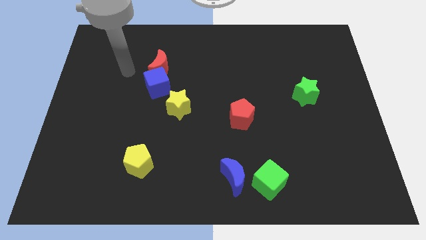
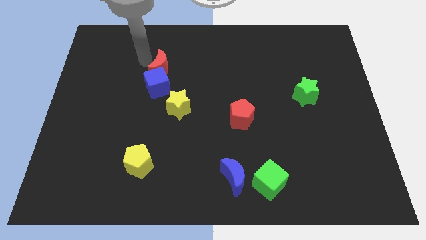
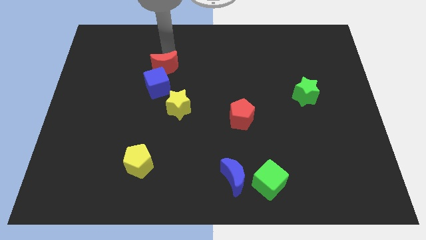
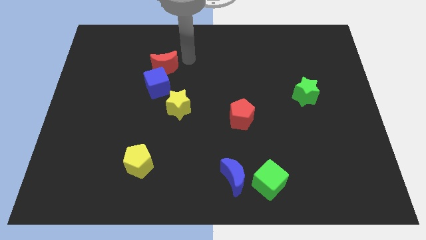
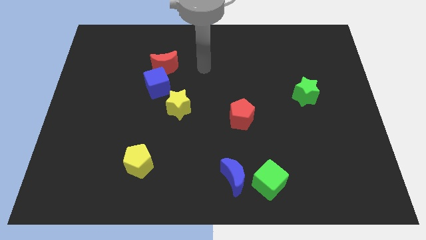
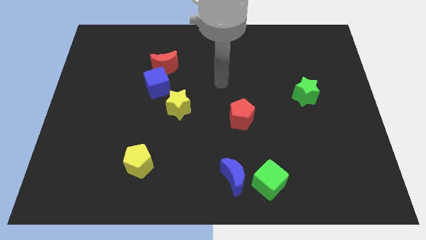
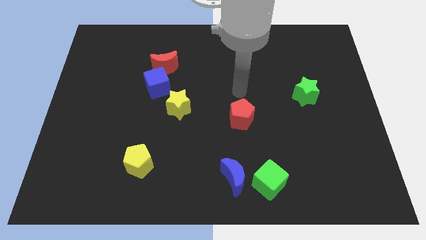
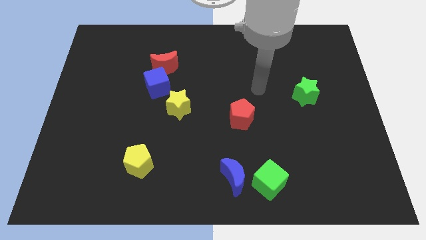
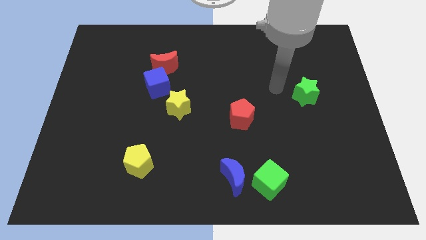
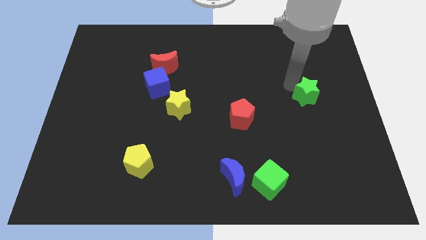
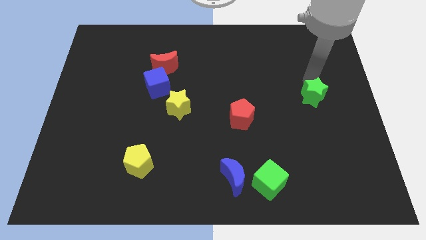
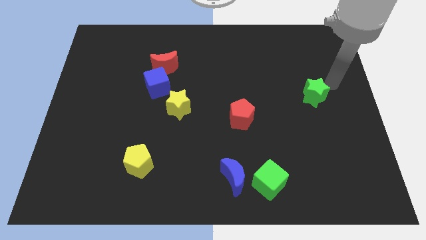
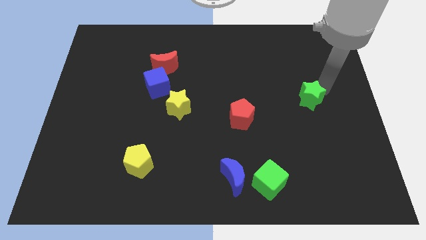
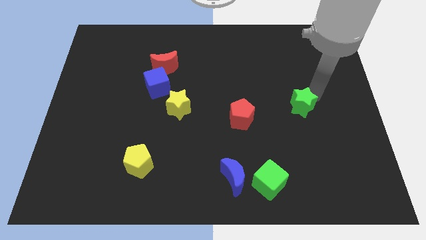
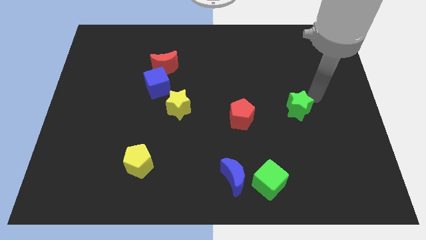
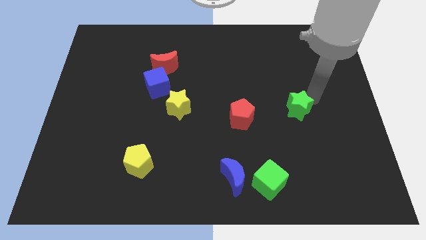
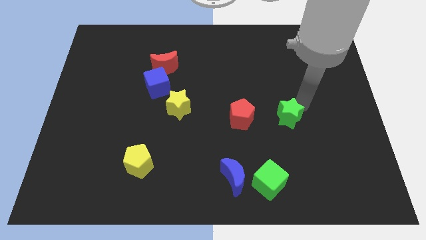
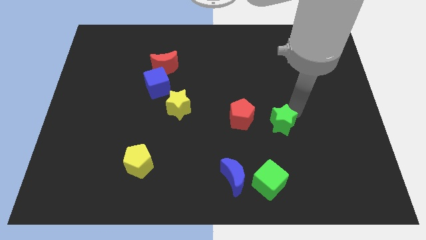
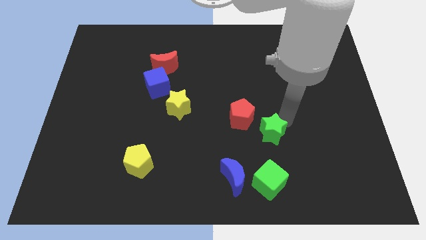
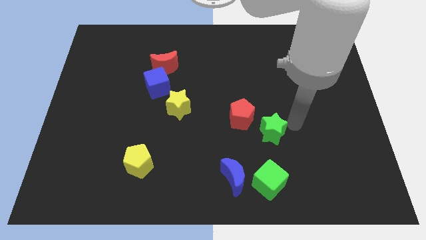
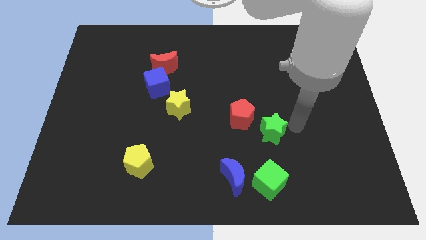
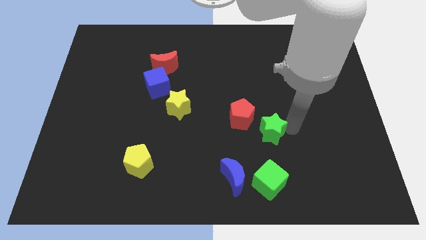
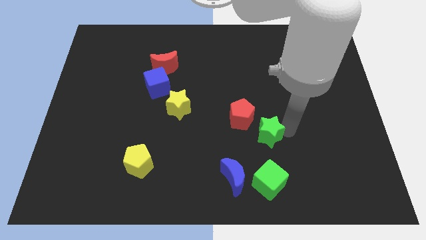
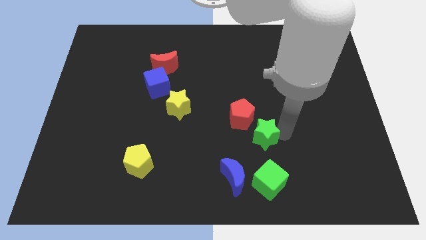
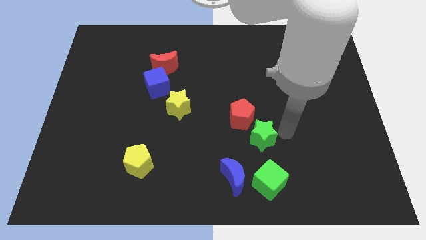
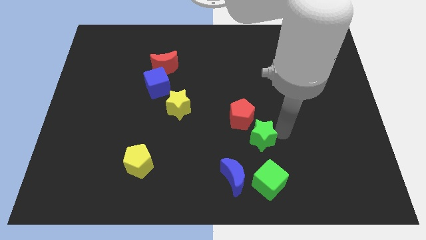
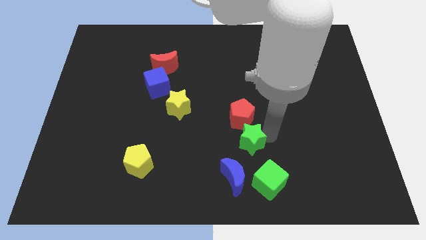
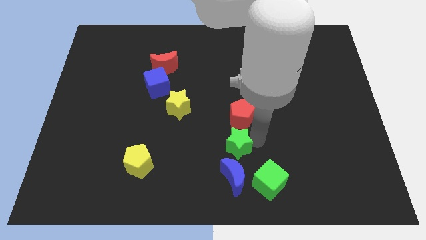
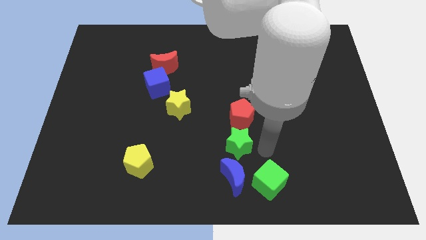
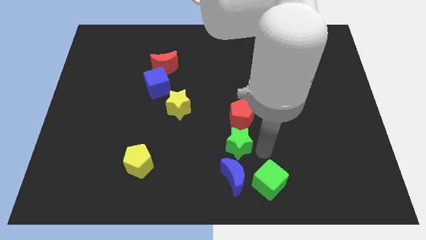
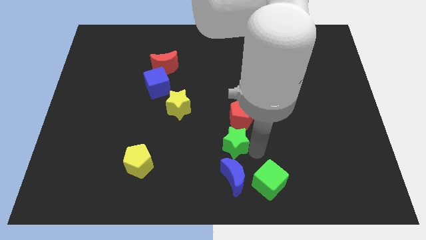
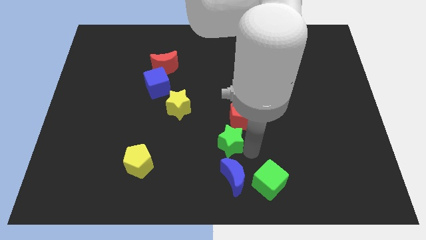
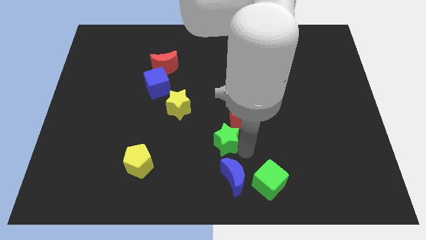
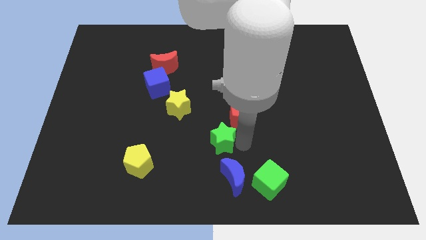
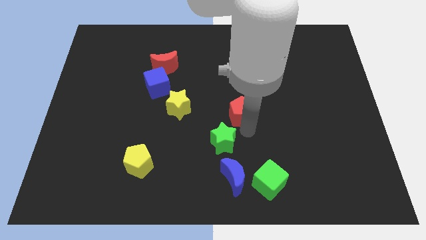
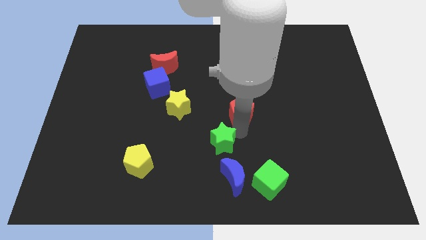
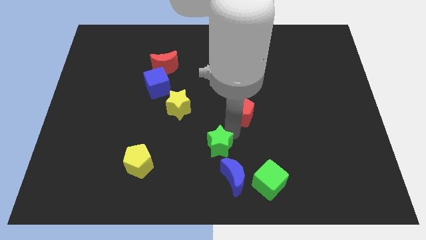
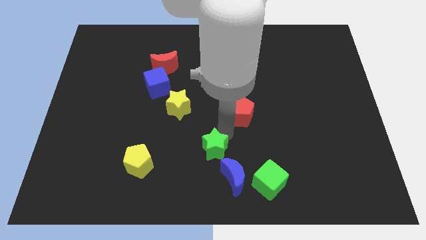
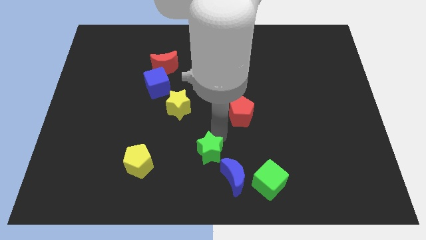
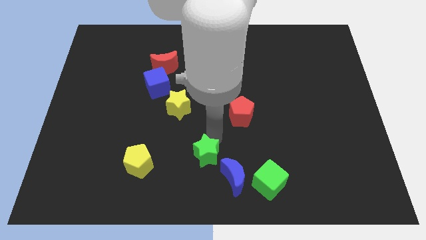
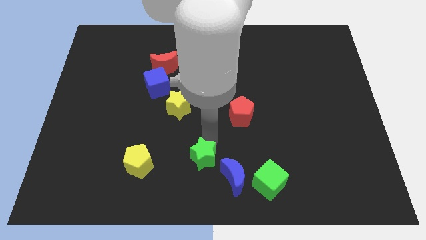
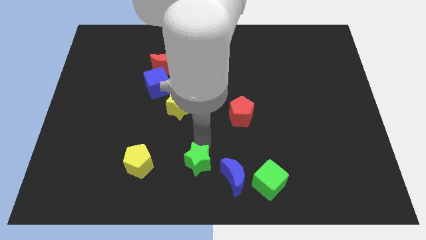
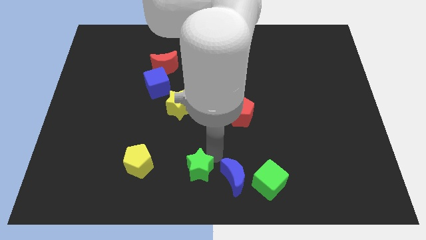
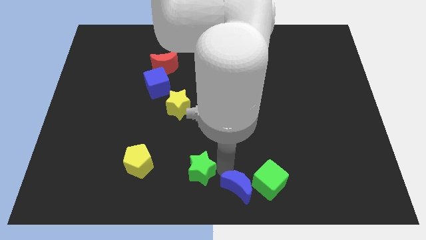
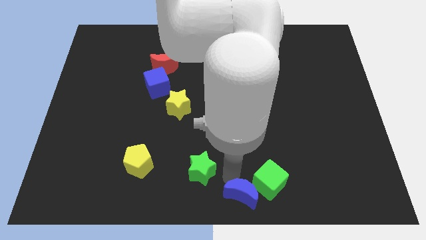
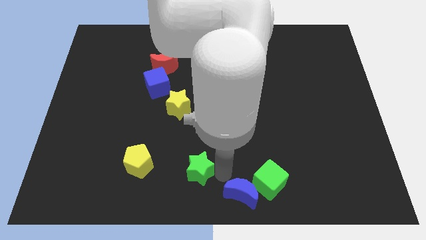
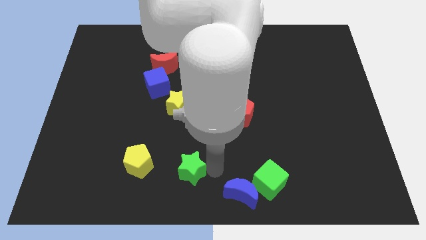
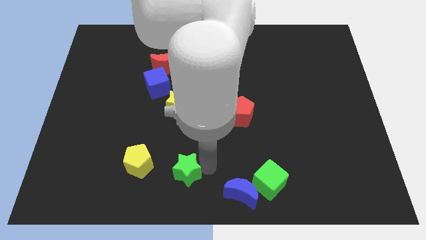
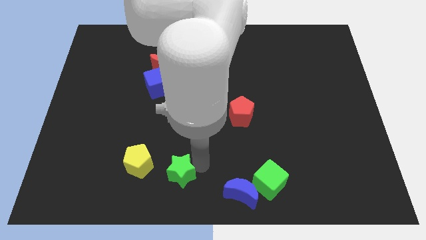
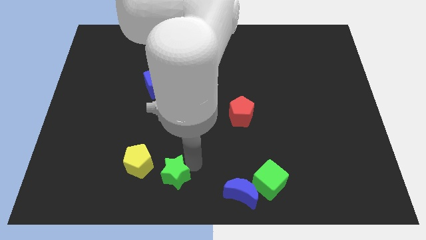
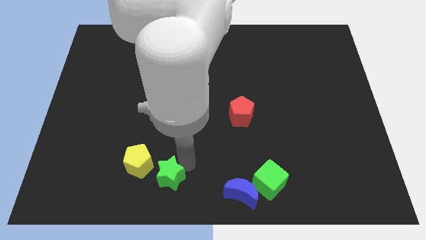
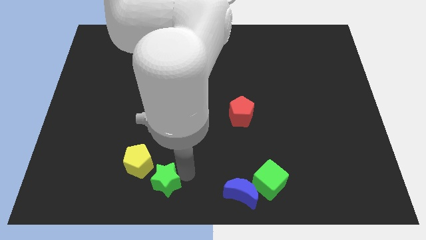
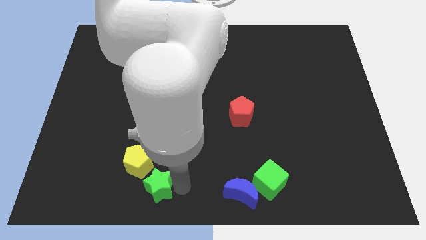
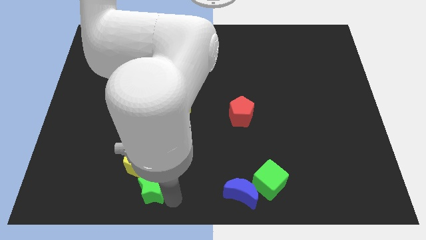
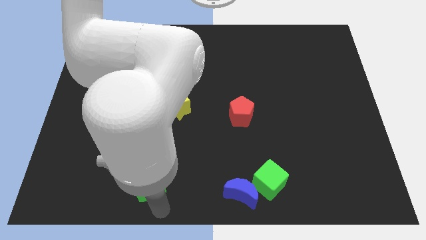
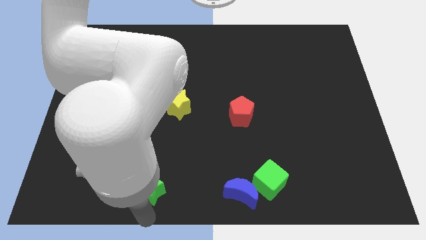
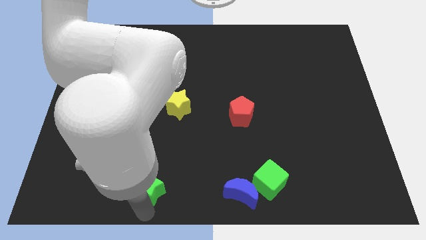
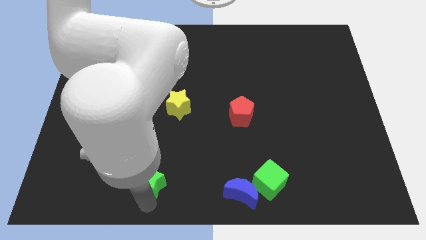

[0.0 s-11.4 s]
push the green star next to the yellow pentagon

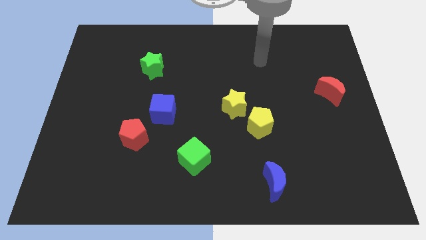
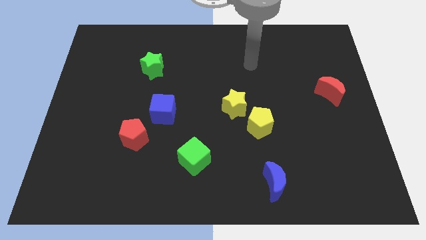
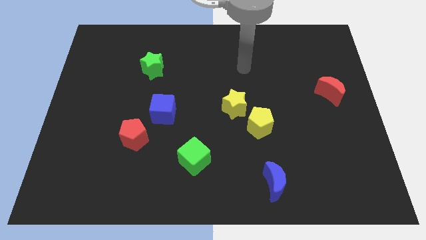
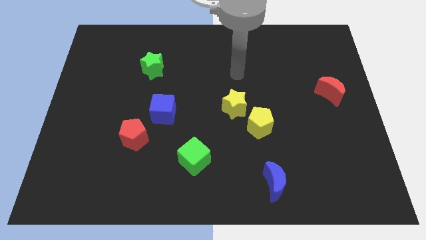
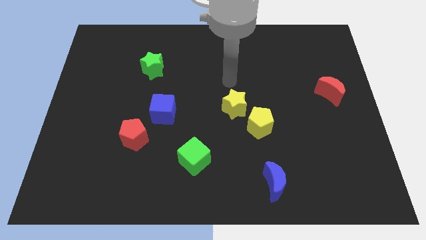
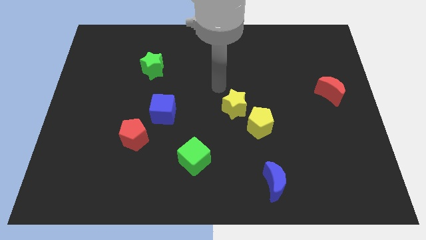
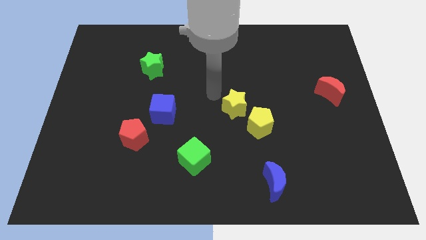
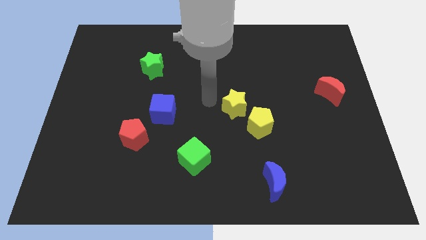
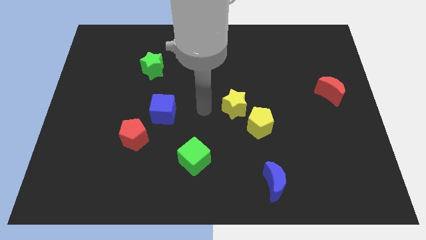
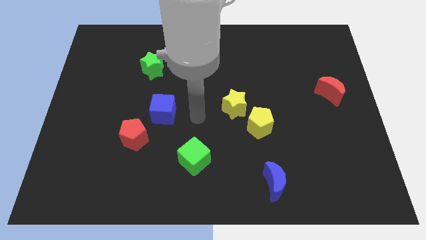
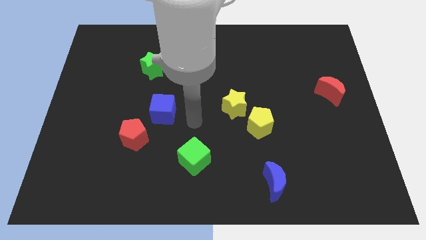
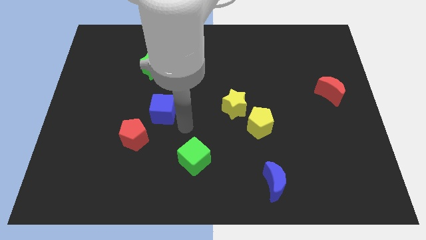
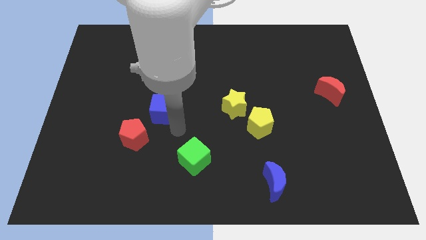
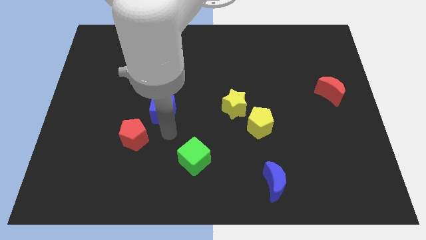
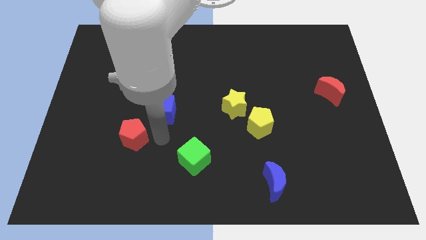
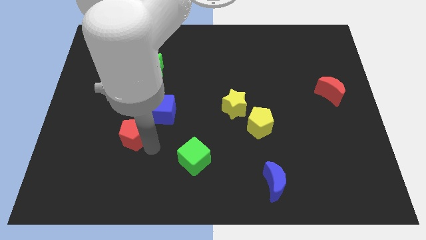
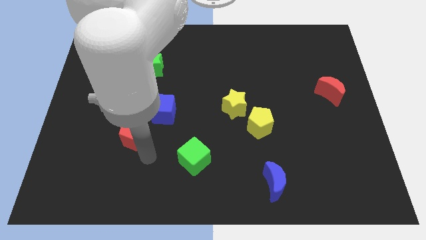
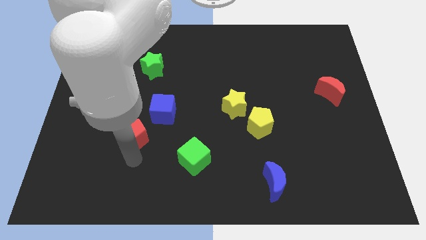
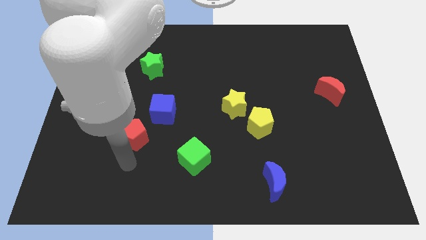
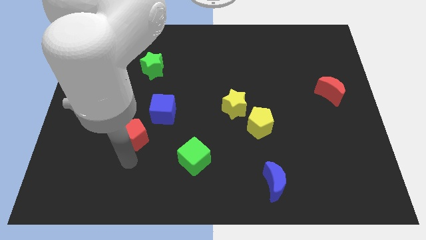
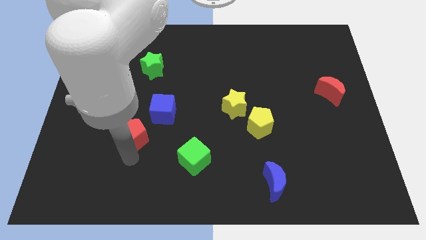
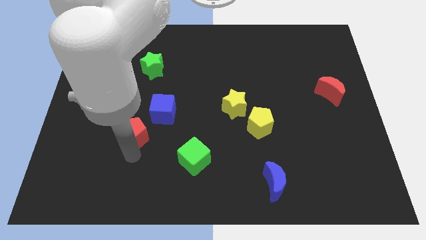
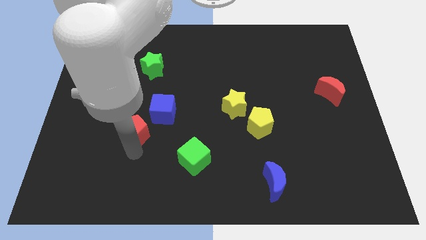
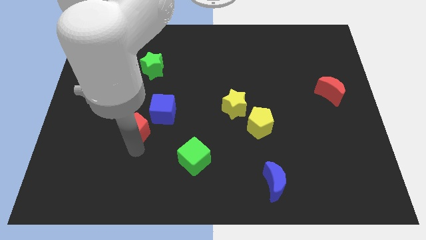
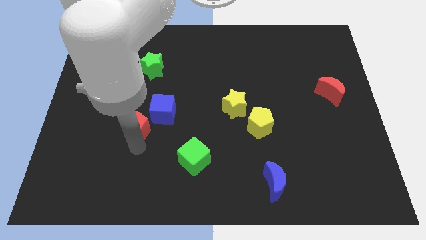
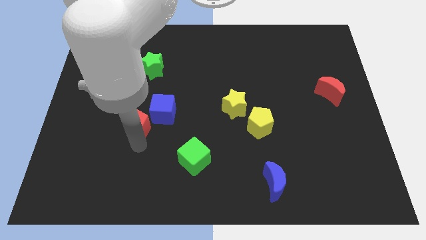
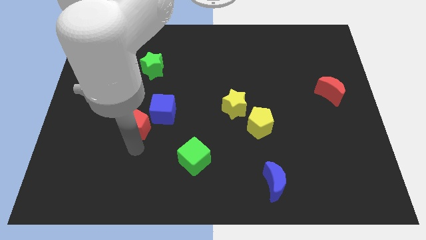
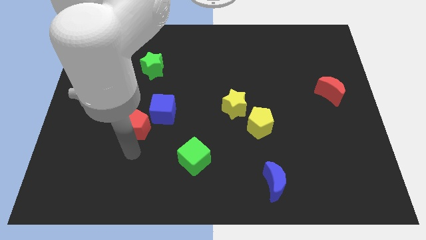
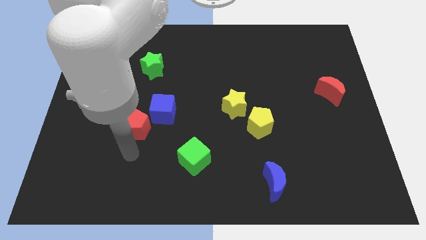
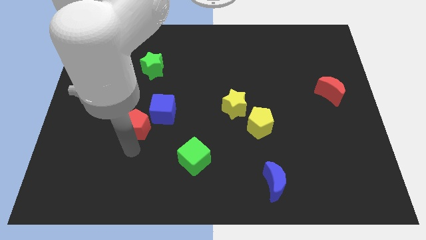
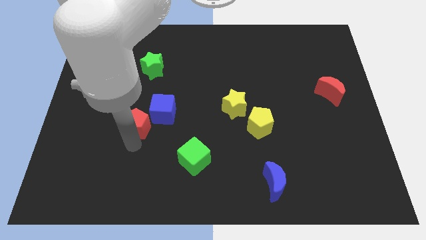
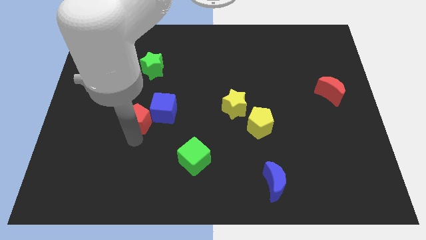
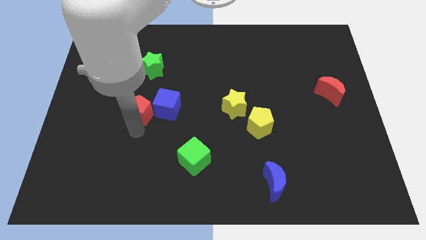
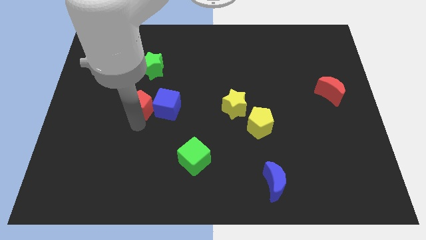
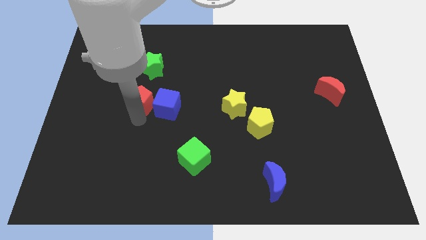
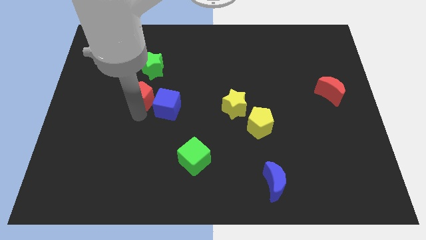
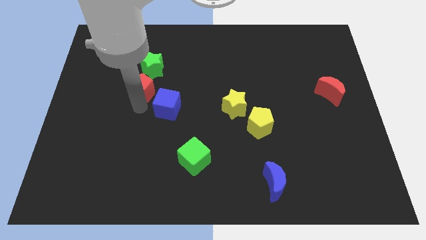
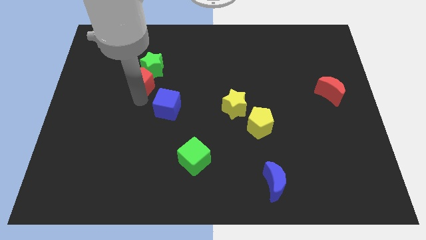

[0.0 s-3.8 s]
slide the red pentagon to the green star
